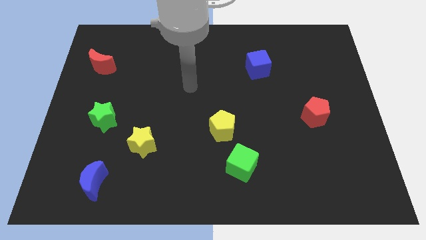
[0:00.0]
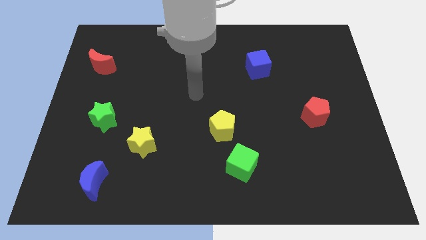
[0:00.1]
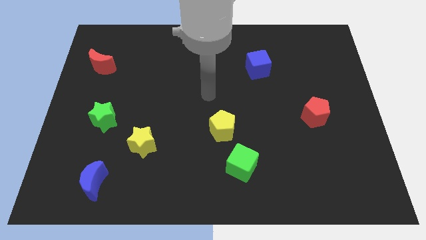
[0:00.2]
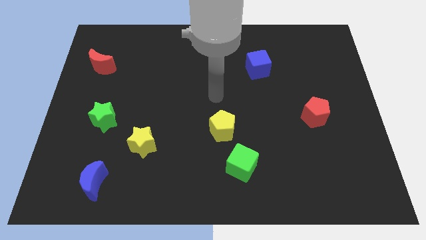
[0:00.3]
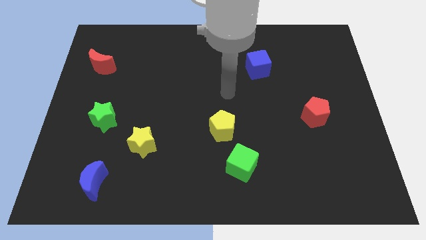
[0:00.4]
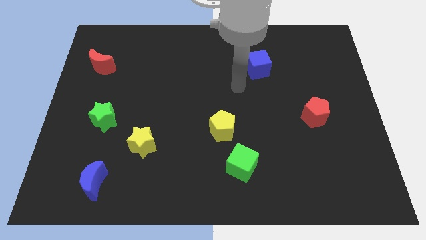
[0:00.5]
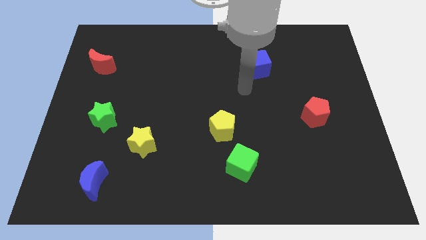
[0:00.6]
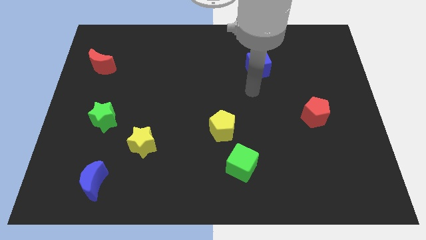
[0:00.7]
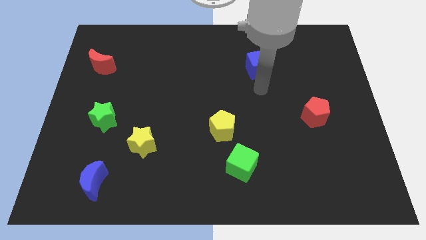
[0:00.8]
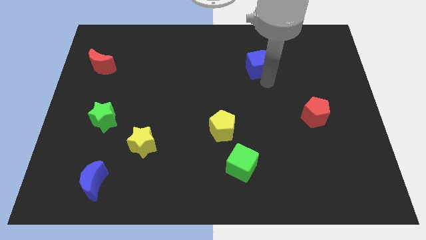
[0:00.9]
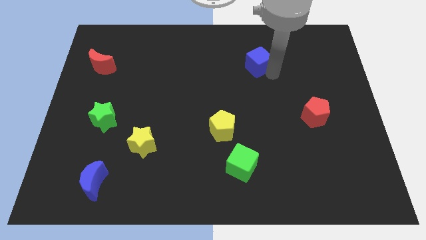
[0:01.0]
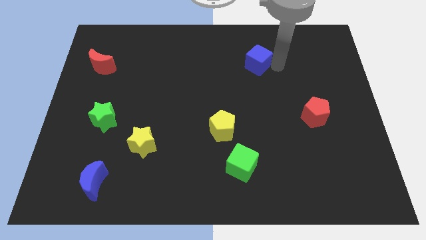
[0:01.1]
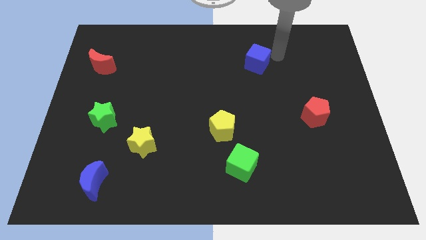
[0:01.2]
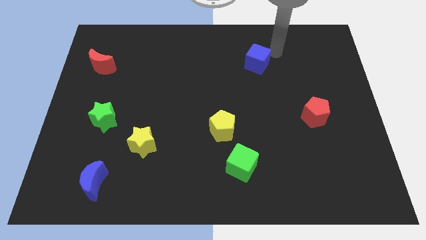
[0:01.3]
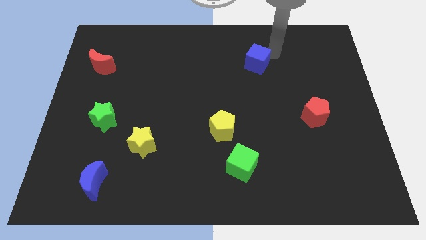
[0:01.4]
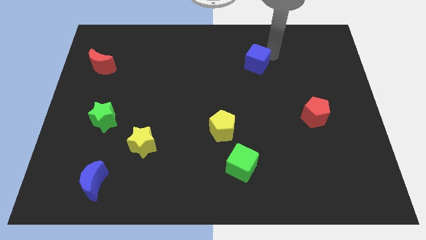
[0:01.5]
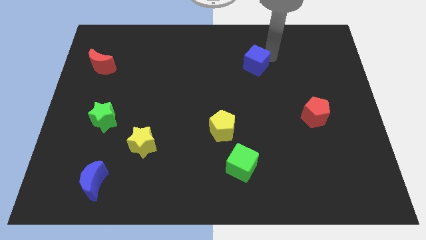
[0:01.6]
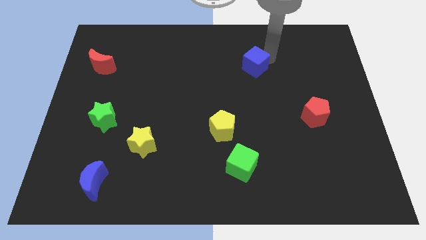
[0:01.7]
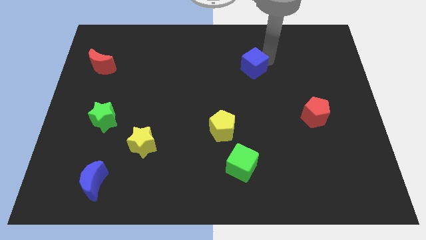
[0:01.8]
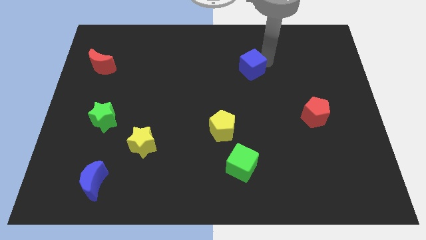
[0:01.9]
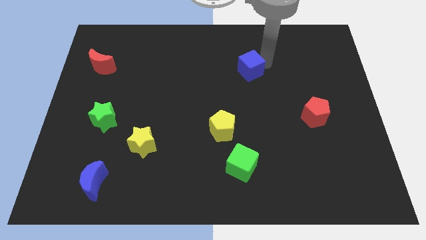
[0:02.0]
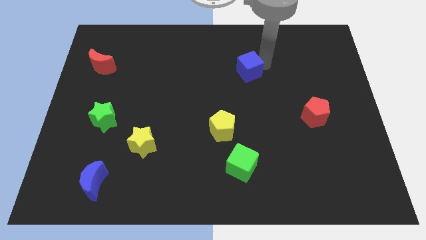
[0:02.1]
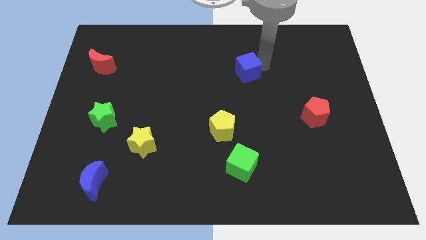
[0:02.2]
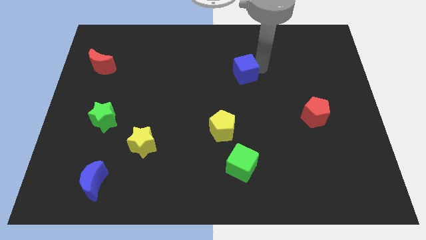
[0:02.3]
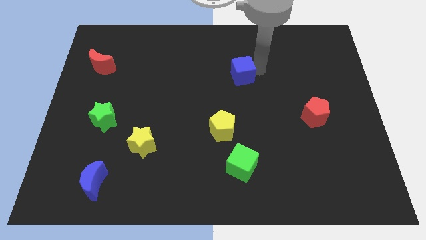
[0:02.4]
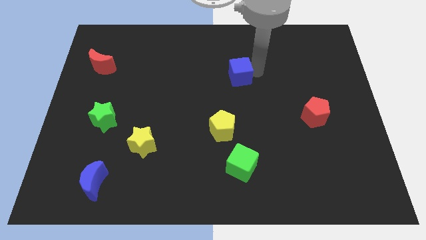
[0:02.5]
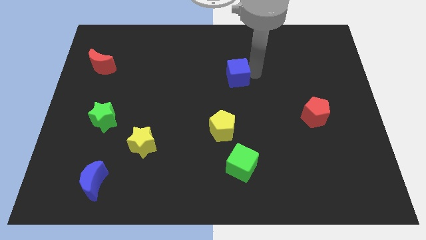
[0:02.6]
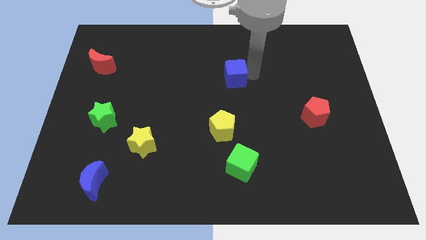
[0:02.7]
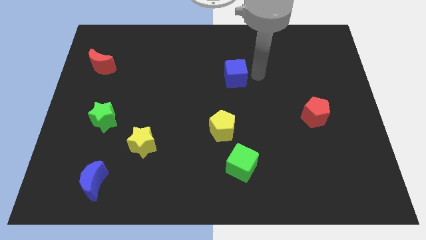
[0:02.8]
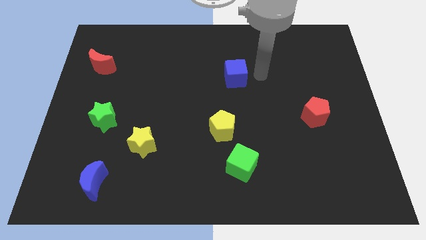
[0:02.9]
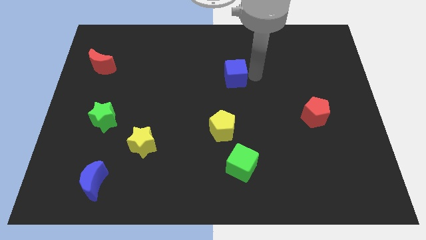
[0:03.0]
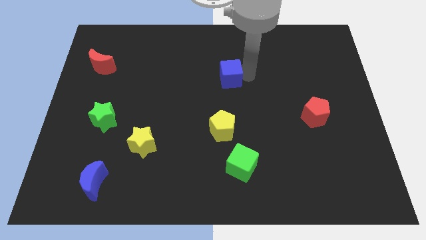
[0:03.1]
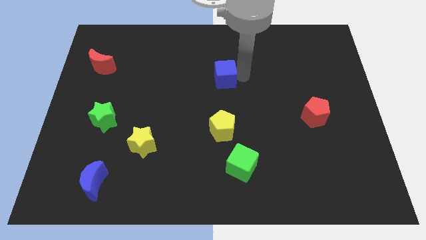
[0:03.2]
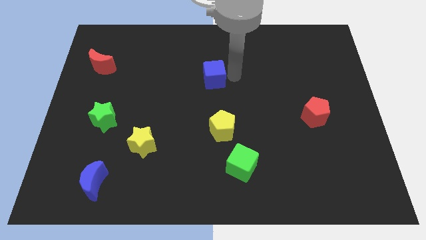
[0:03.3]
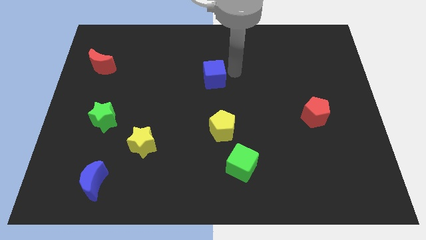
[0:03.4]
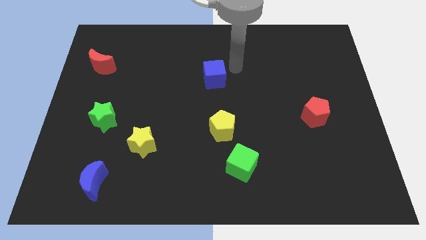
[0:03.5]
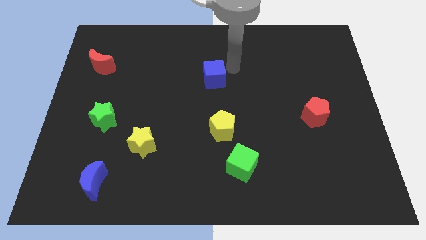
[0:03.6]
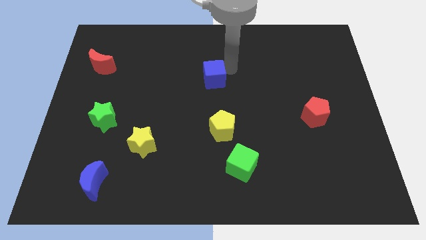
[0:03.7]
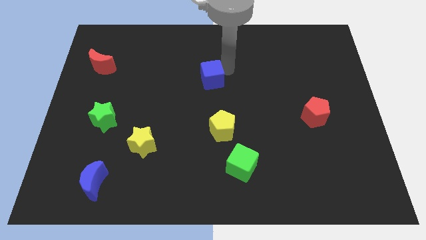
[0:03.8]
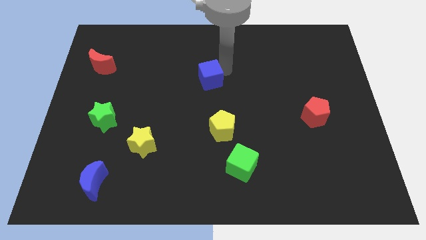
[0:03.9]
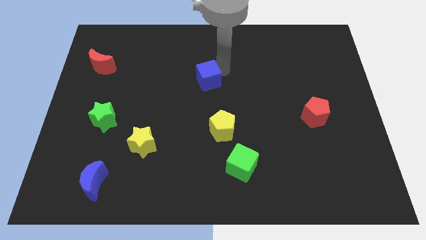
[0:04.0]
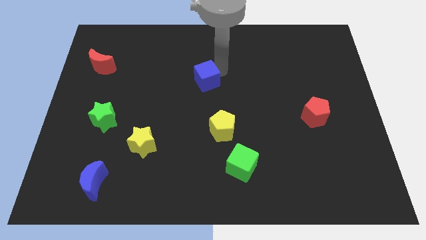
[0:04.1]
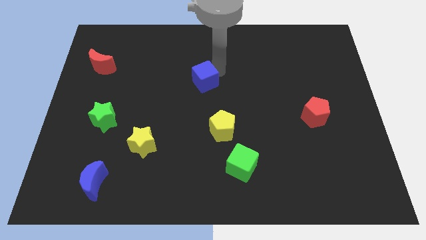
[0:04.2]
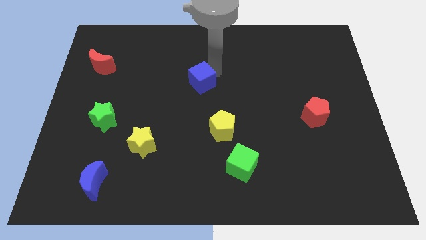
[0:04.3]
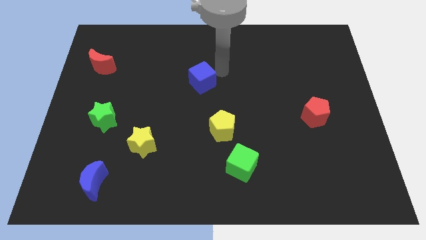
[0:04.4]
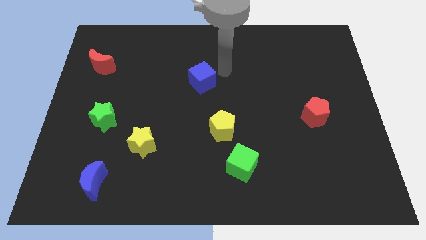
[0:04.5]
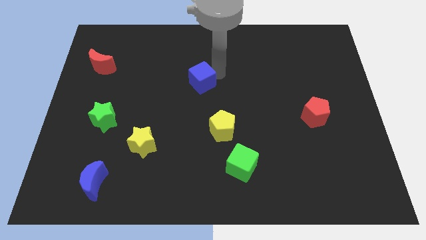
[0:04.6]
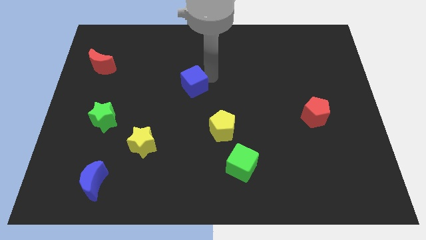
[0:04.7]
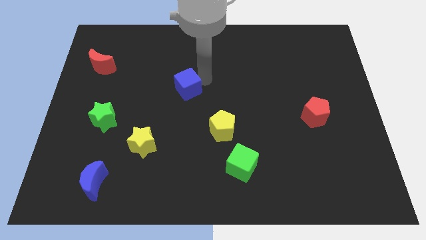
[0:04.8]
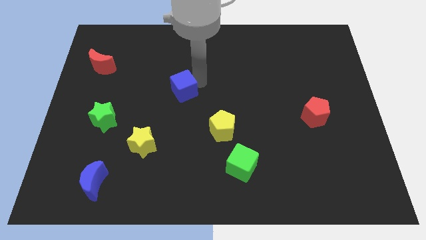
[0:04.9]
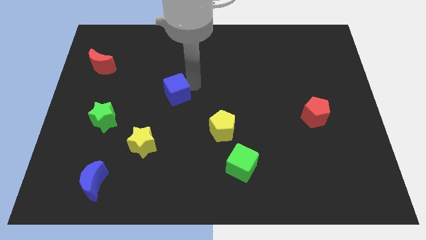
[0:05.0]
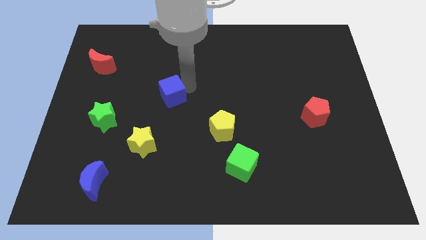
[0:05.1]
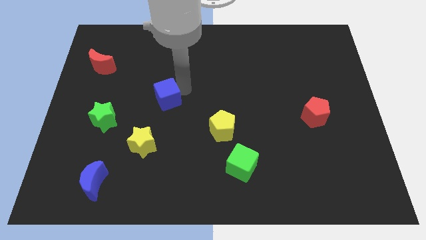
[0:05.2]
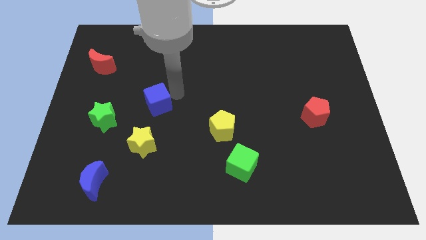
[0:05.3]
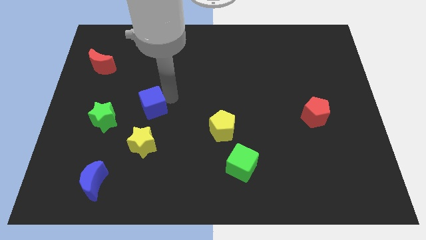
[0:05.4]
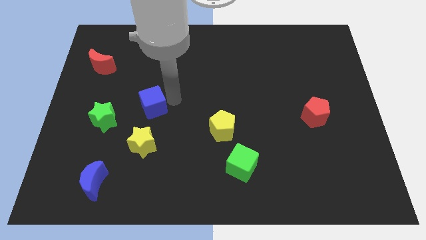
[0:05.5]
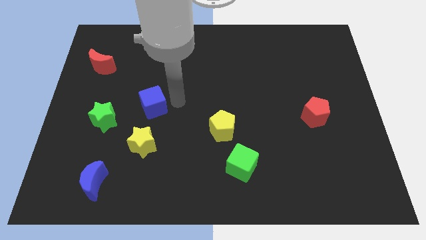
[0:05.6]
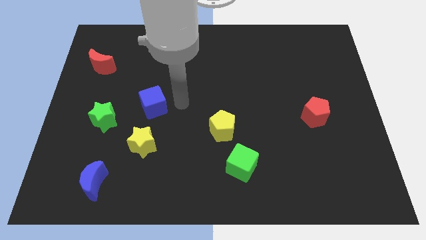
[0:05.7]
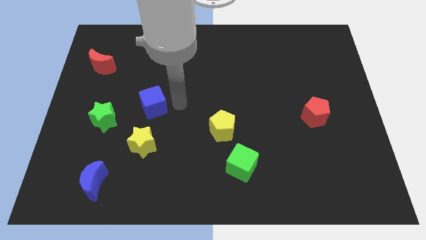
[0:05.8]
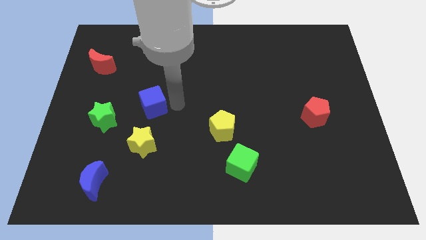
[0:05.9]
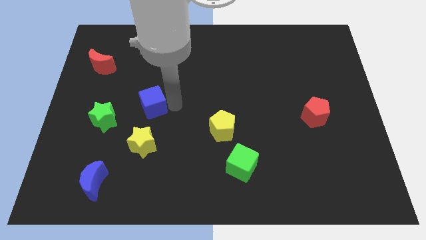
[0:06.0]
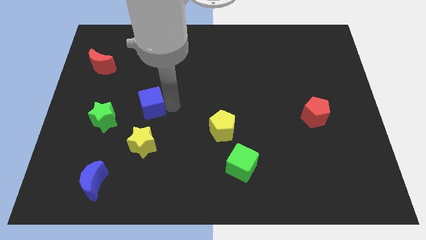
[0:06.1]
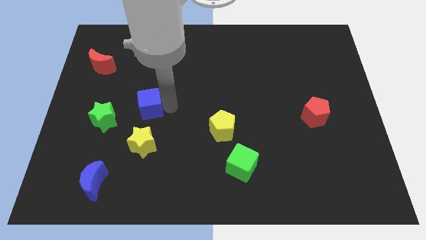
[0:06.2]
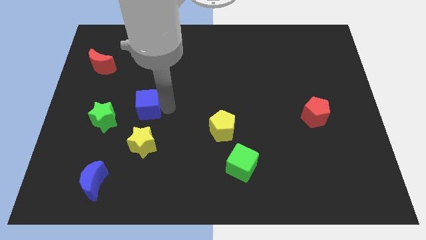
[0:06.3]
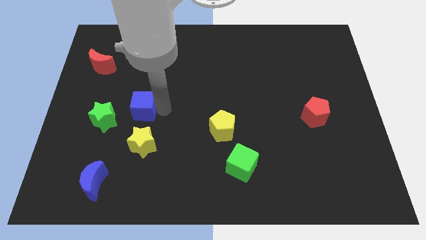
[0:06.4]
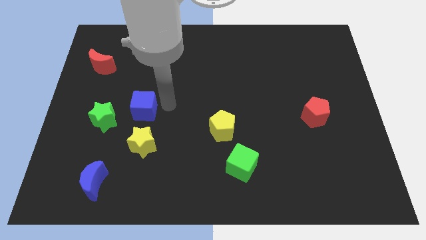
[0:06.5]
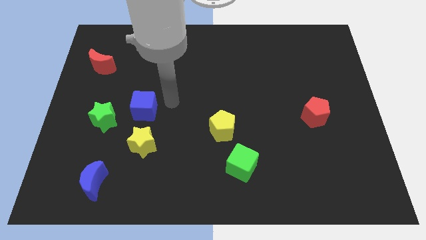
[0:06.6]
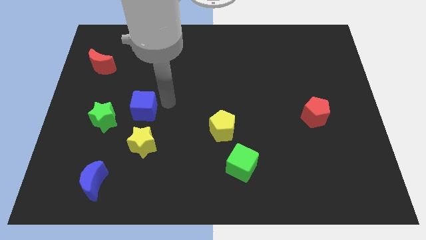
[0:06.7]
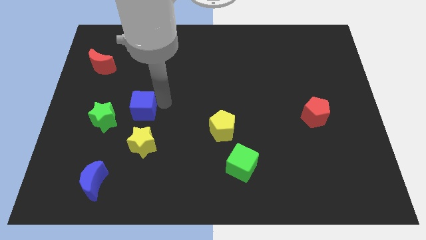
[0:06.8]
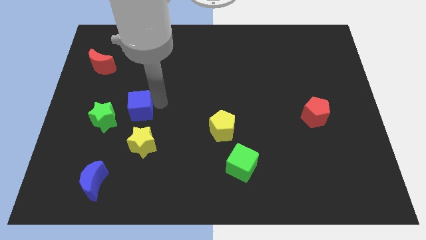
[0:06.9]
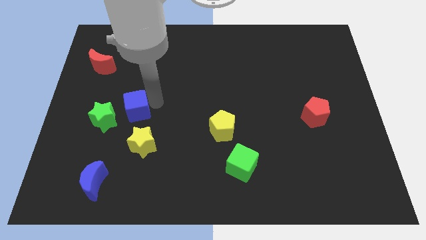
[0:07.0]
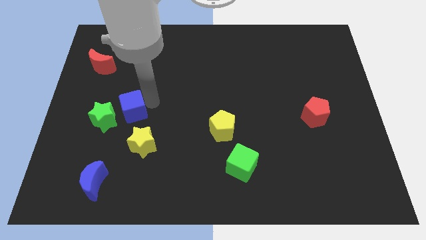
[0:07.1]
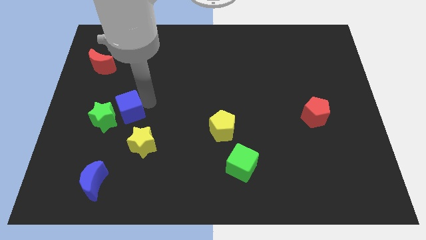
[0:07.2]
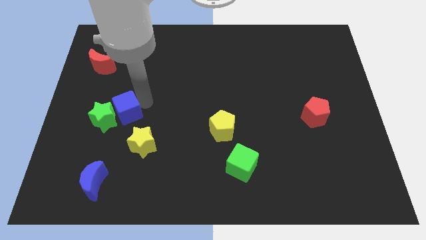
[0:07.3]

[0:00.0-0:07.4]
put the blue cube close to the green star
